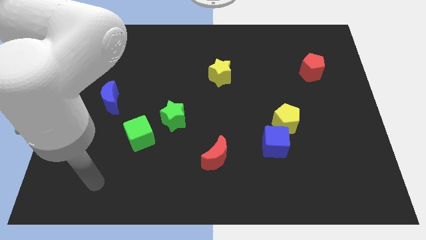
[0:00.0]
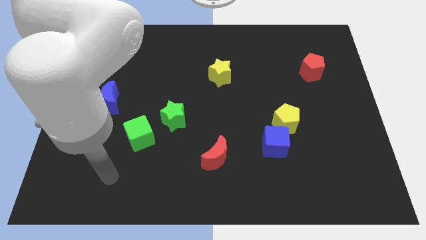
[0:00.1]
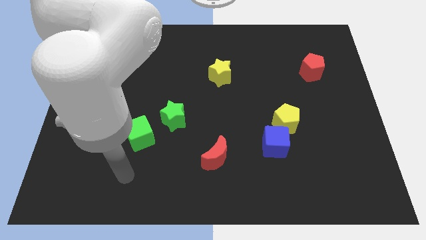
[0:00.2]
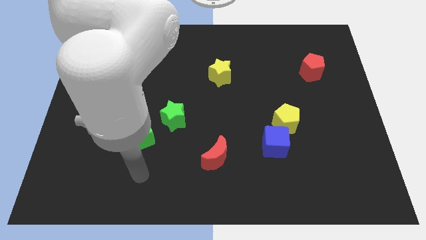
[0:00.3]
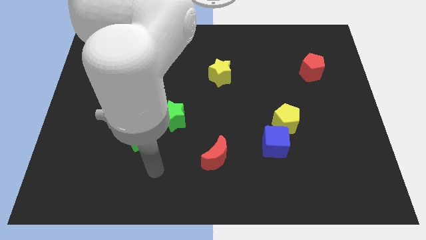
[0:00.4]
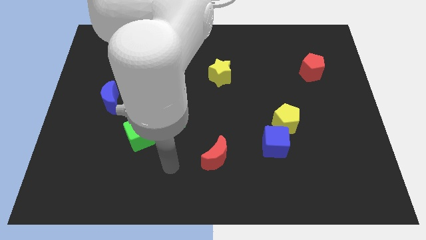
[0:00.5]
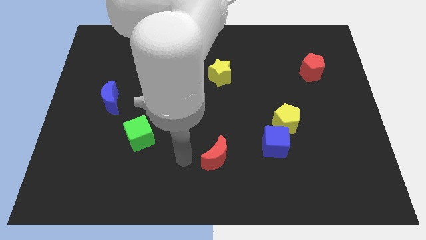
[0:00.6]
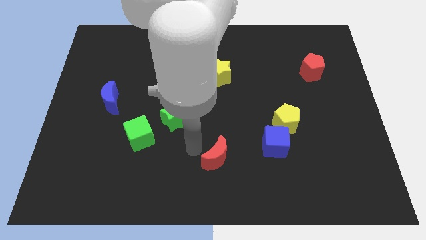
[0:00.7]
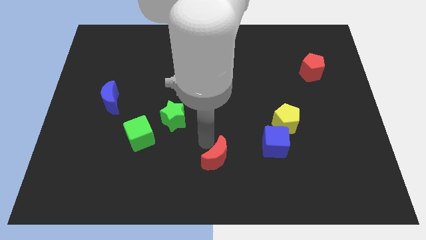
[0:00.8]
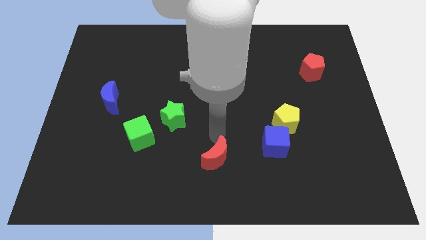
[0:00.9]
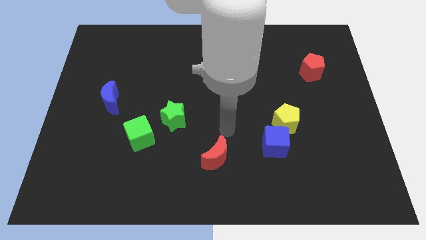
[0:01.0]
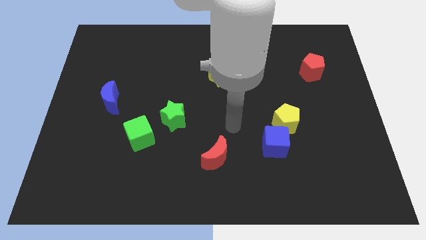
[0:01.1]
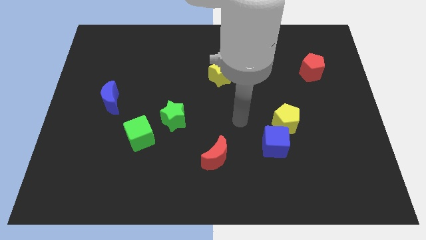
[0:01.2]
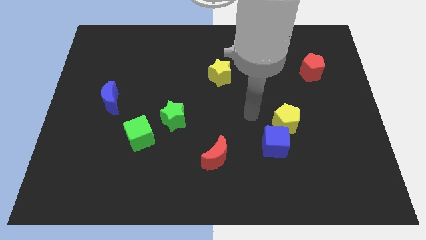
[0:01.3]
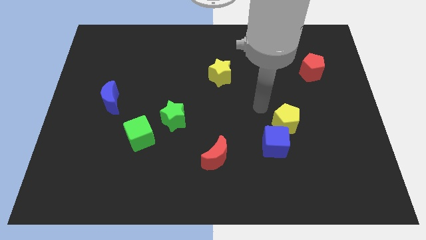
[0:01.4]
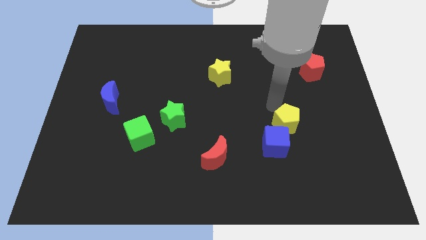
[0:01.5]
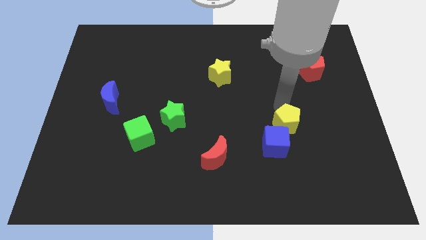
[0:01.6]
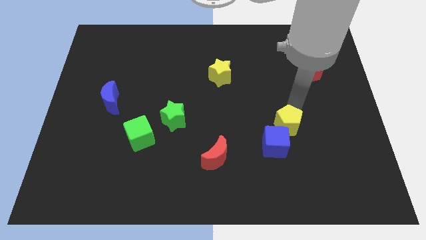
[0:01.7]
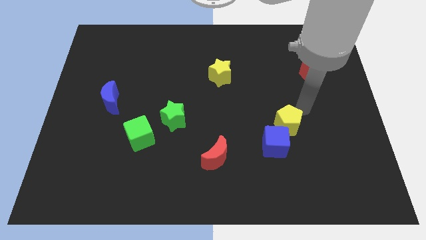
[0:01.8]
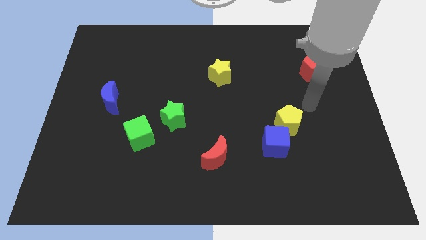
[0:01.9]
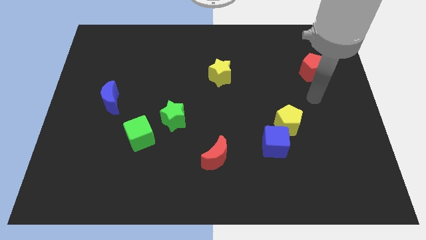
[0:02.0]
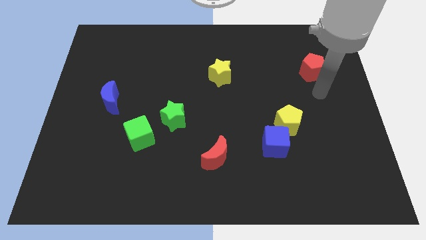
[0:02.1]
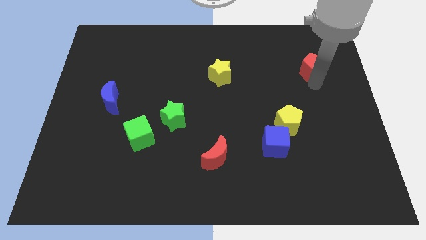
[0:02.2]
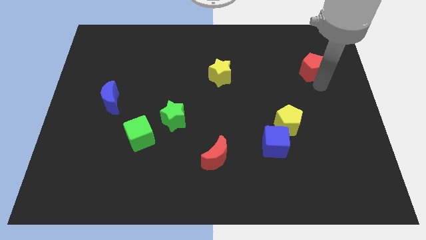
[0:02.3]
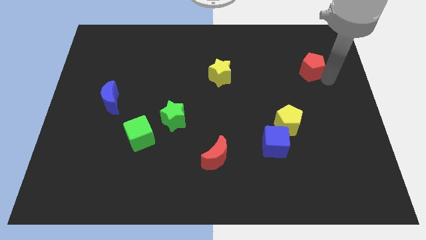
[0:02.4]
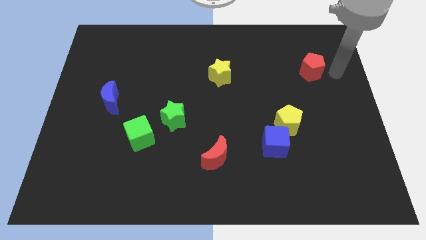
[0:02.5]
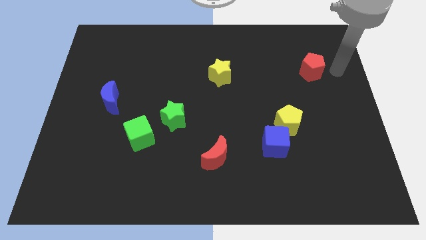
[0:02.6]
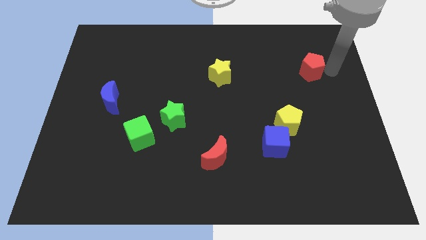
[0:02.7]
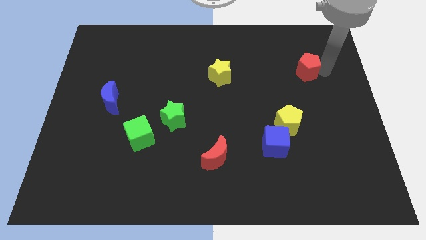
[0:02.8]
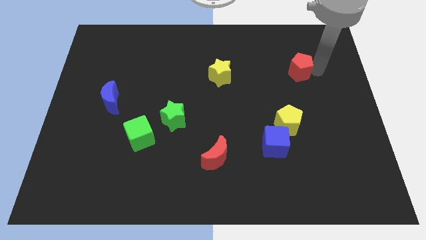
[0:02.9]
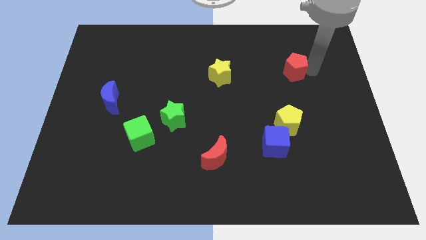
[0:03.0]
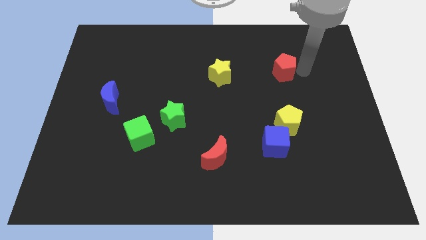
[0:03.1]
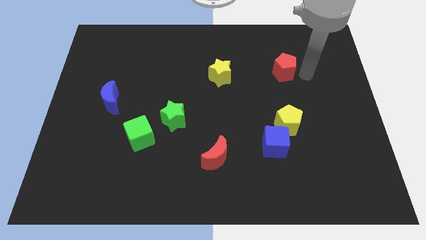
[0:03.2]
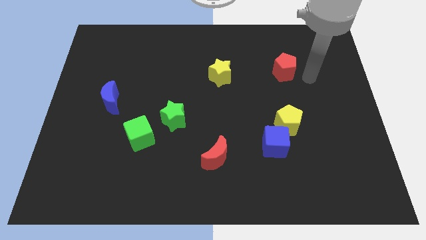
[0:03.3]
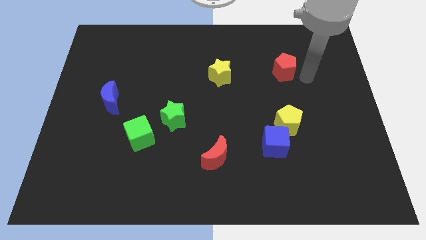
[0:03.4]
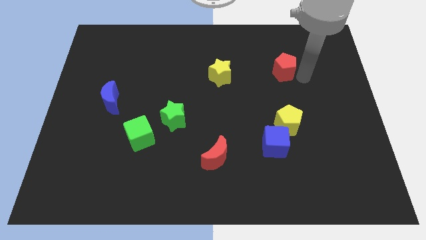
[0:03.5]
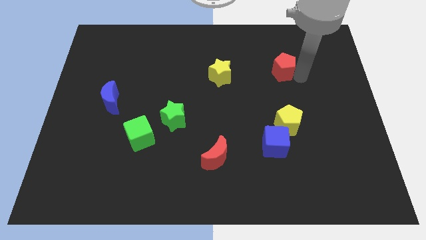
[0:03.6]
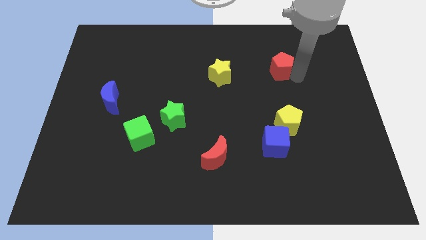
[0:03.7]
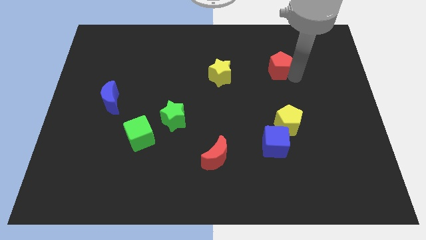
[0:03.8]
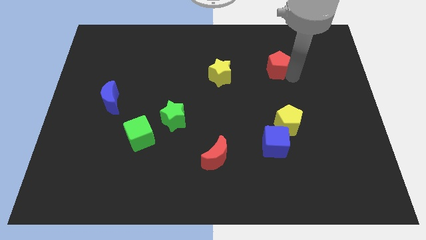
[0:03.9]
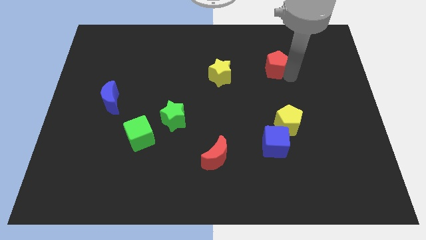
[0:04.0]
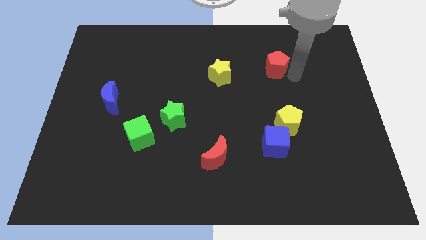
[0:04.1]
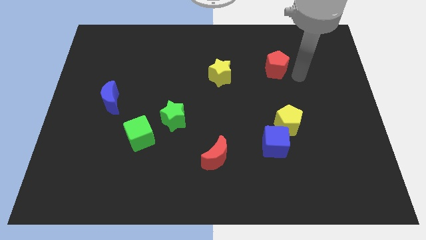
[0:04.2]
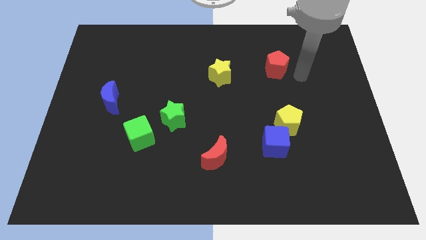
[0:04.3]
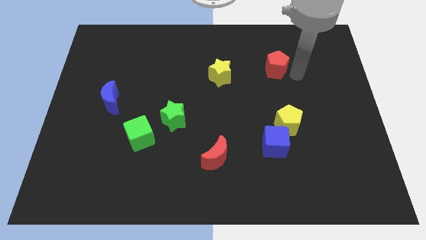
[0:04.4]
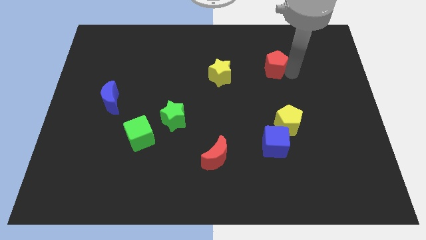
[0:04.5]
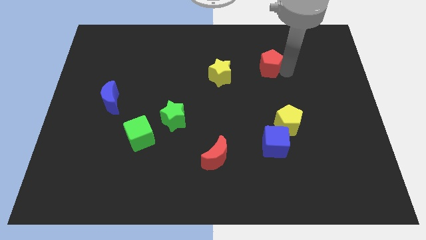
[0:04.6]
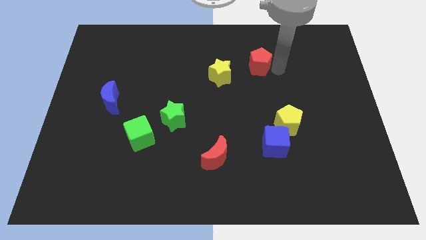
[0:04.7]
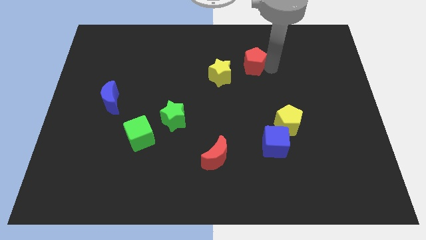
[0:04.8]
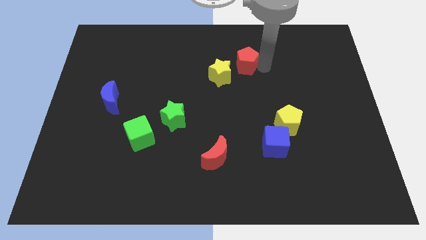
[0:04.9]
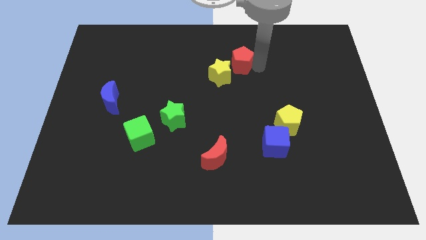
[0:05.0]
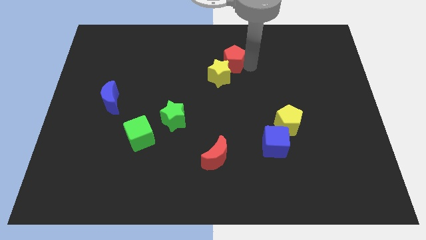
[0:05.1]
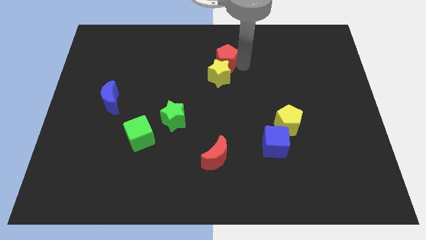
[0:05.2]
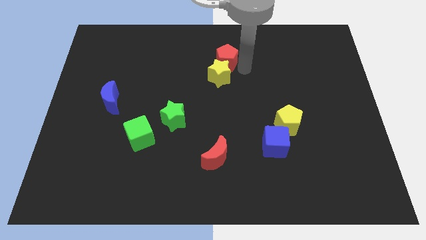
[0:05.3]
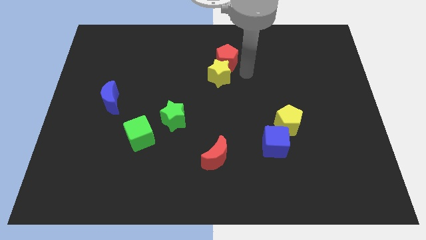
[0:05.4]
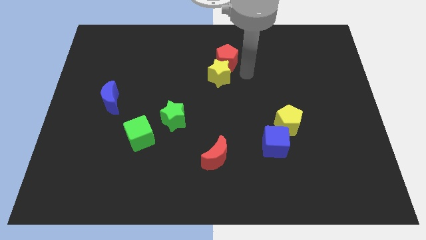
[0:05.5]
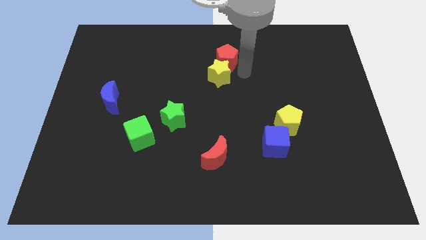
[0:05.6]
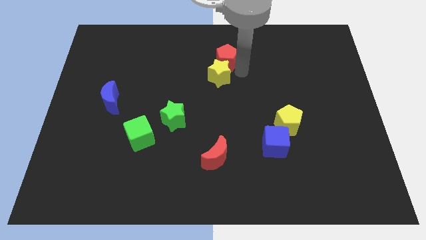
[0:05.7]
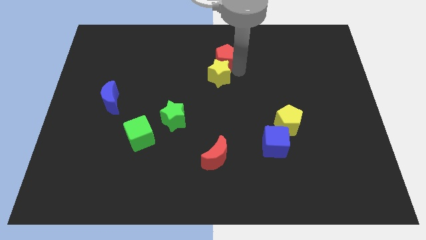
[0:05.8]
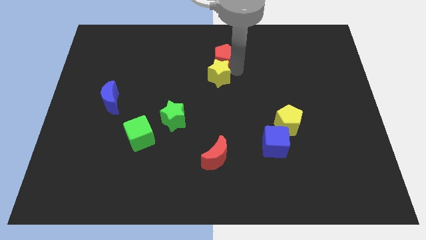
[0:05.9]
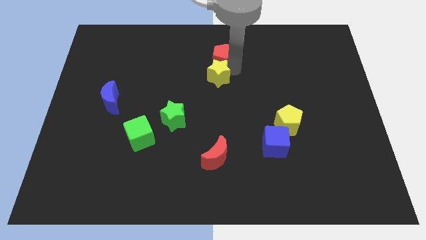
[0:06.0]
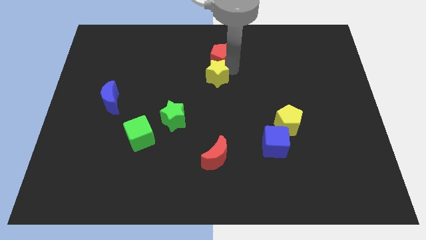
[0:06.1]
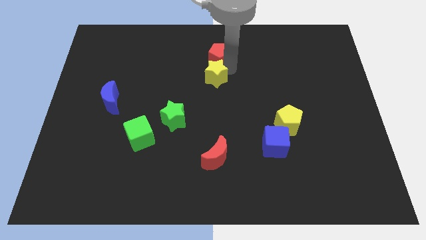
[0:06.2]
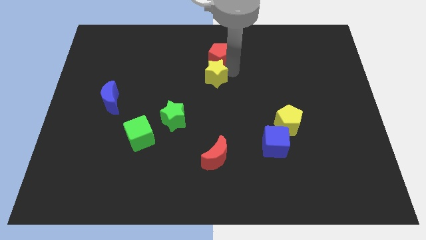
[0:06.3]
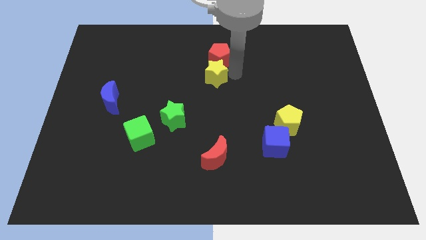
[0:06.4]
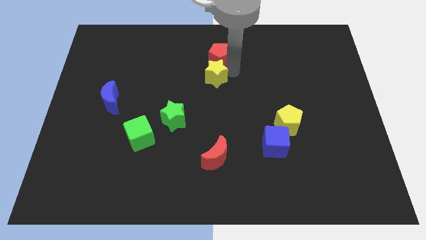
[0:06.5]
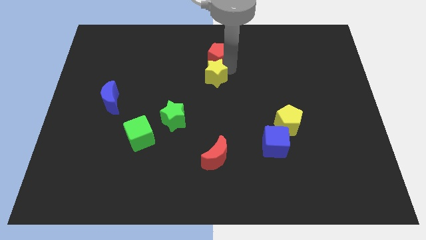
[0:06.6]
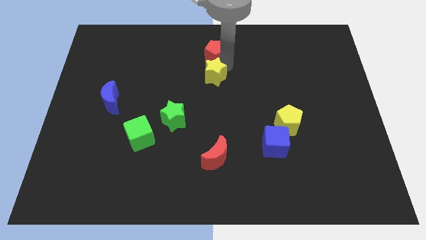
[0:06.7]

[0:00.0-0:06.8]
put the red pentagon to the top side

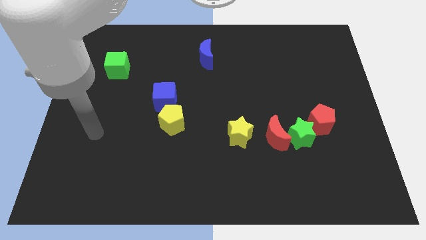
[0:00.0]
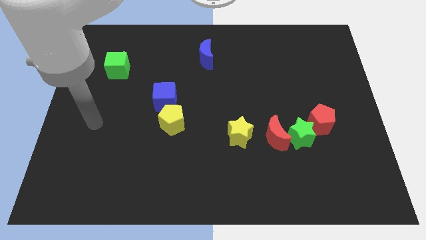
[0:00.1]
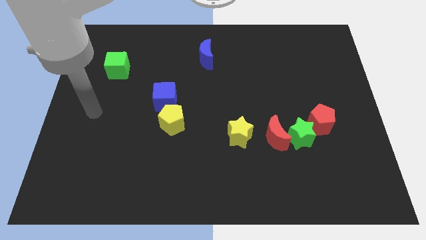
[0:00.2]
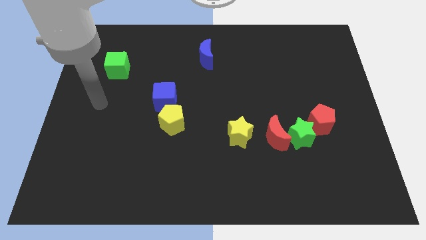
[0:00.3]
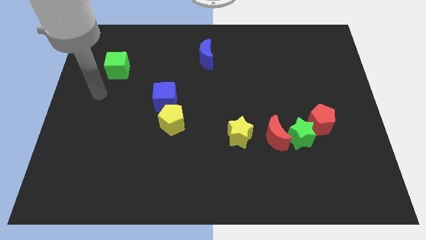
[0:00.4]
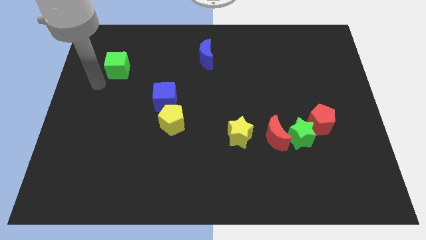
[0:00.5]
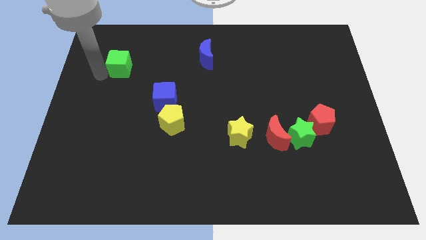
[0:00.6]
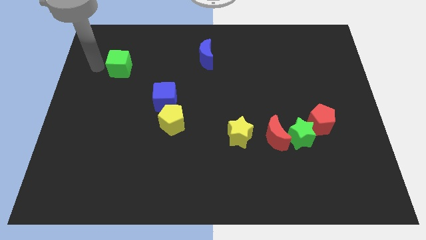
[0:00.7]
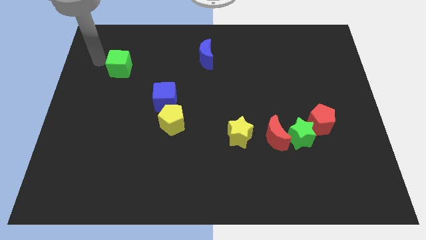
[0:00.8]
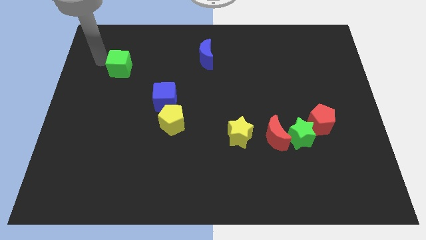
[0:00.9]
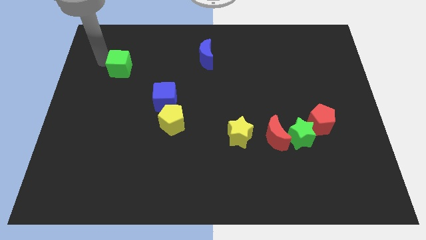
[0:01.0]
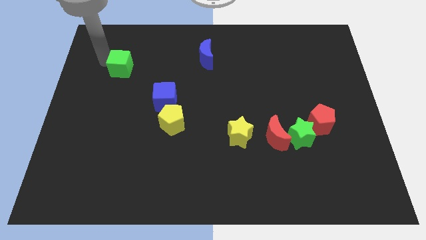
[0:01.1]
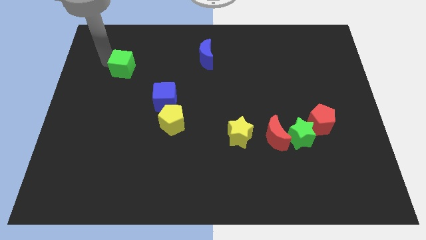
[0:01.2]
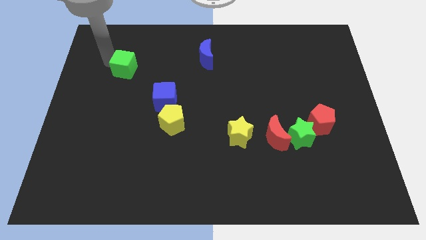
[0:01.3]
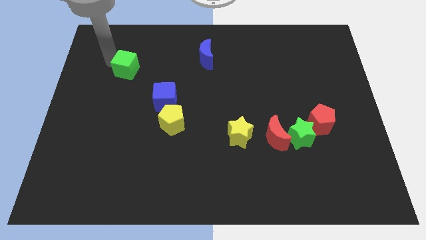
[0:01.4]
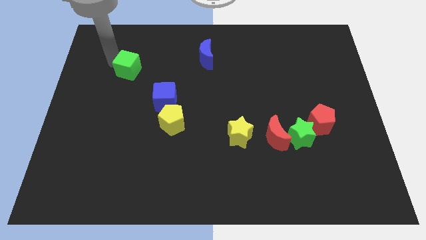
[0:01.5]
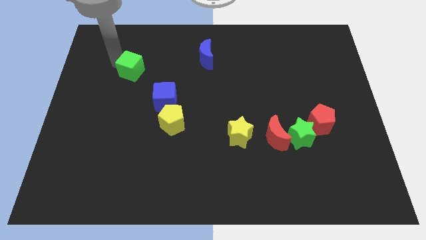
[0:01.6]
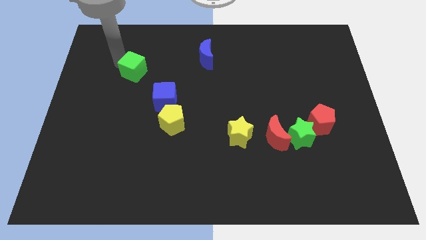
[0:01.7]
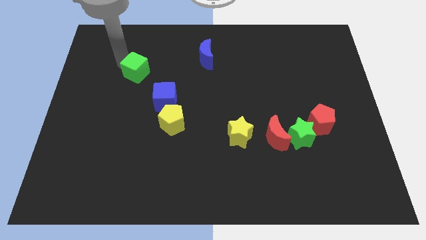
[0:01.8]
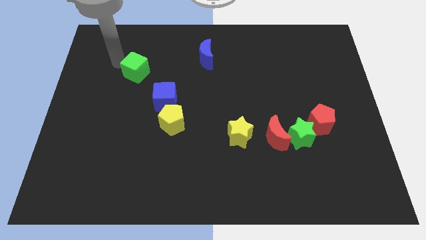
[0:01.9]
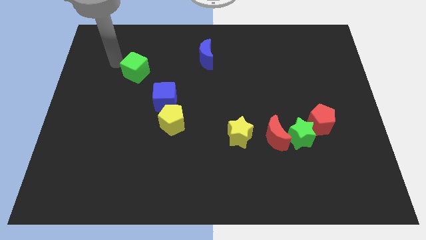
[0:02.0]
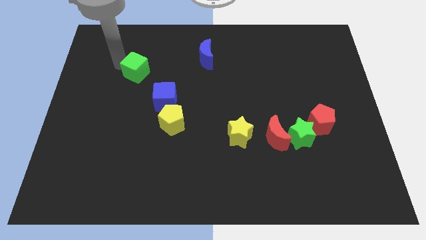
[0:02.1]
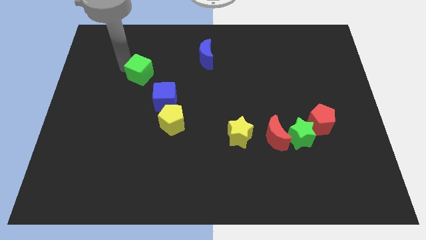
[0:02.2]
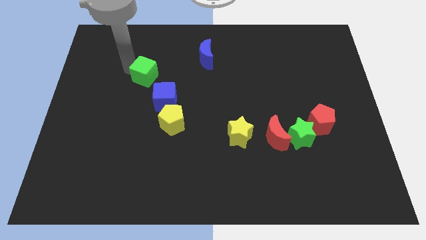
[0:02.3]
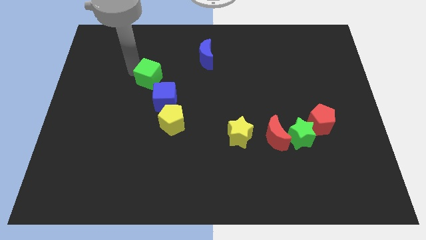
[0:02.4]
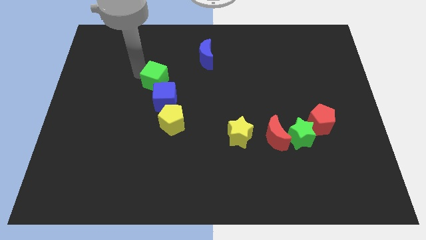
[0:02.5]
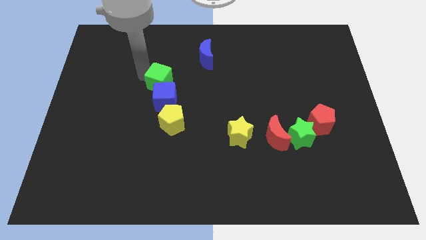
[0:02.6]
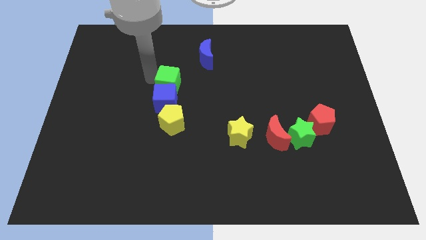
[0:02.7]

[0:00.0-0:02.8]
push the green cube to the center
